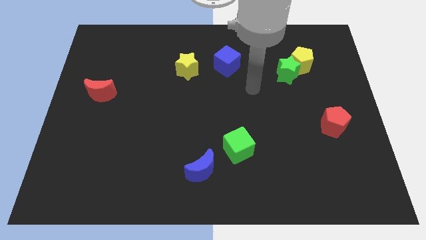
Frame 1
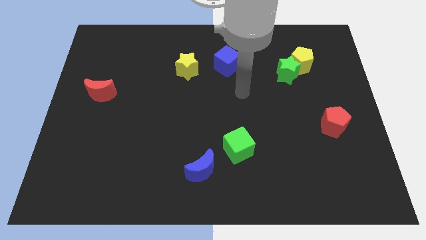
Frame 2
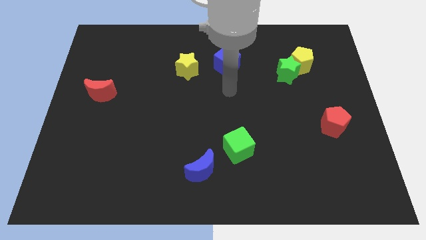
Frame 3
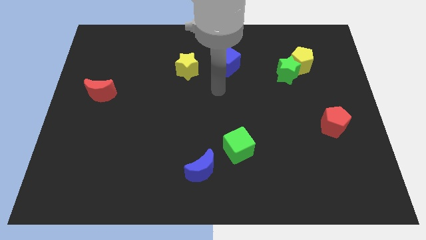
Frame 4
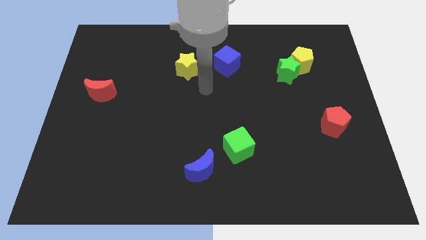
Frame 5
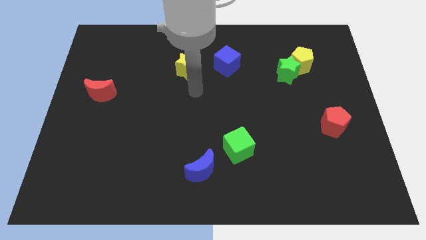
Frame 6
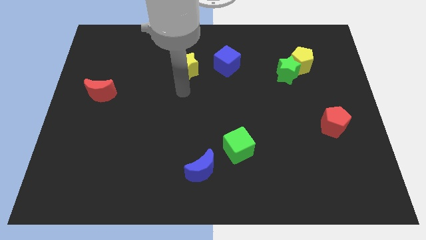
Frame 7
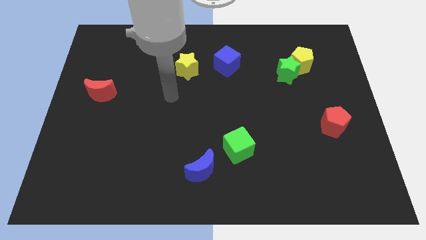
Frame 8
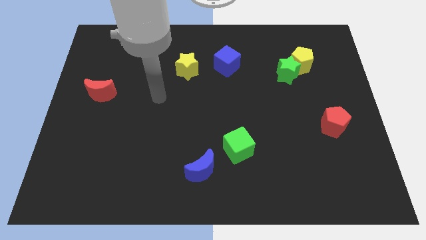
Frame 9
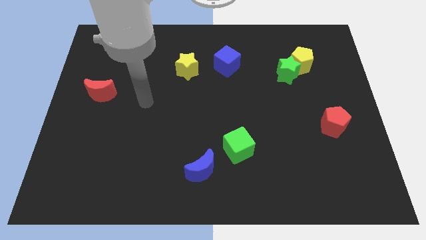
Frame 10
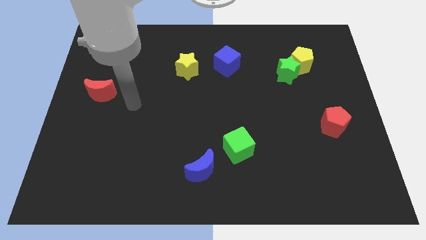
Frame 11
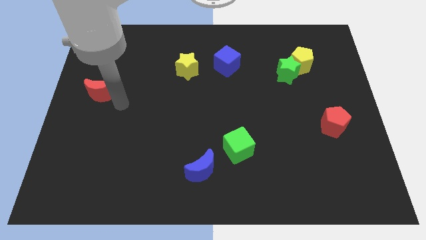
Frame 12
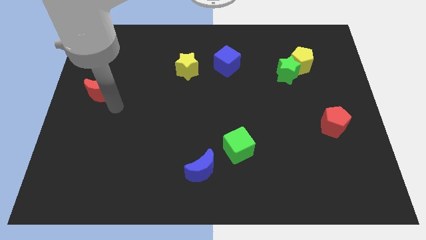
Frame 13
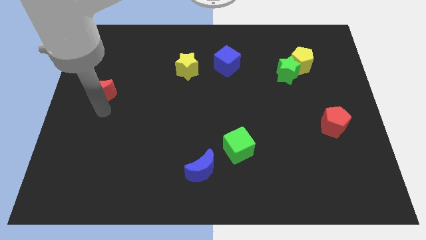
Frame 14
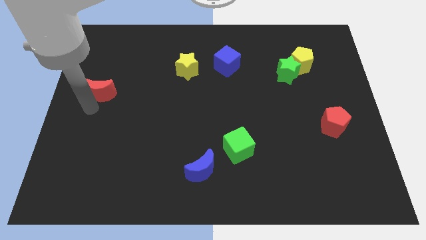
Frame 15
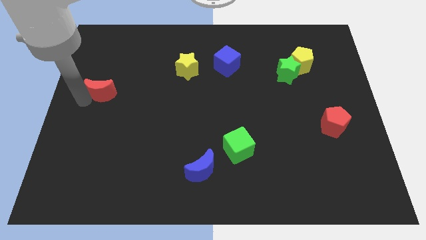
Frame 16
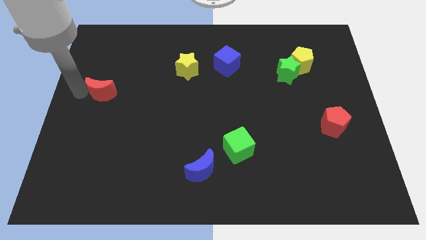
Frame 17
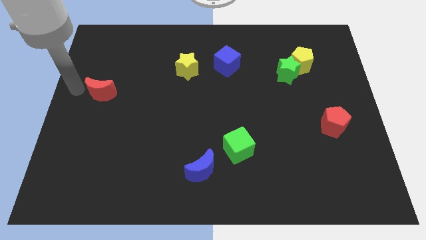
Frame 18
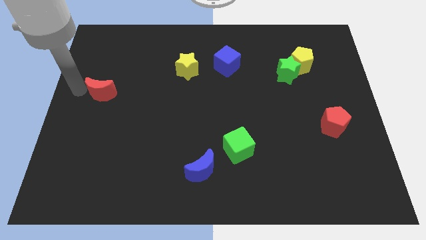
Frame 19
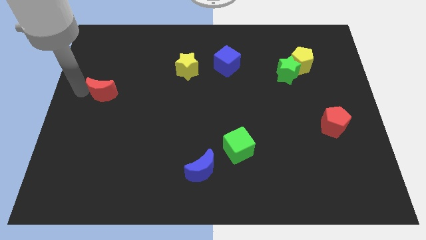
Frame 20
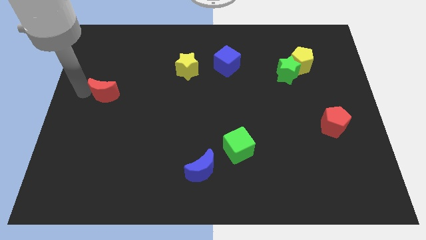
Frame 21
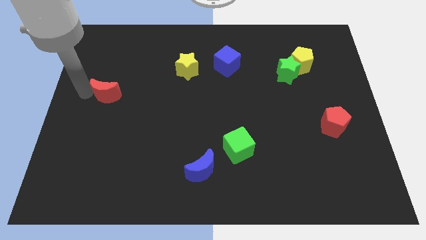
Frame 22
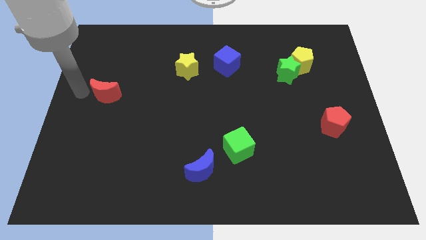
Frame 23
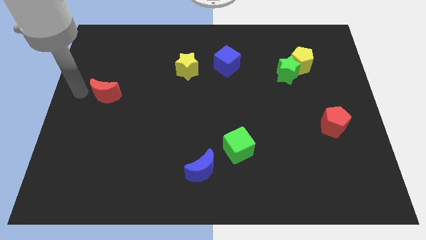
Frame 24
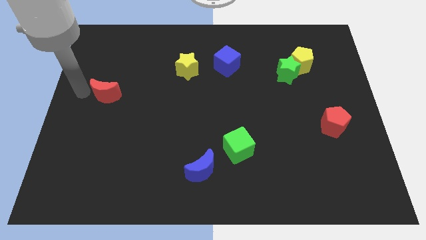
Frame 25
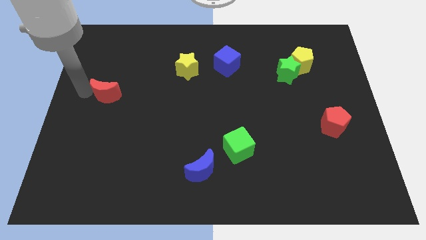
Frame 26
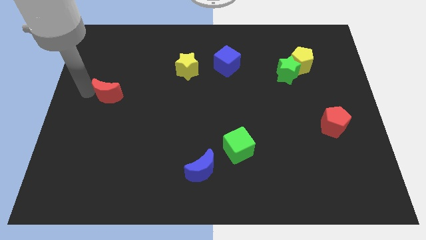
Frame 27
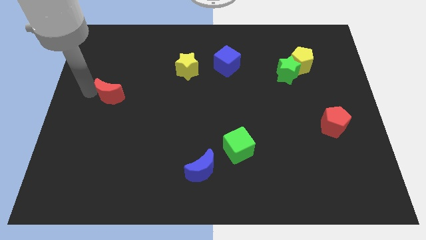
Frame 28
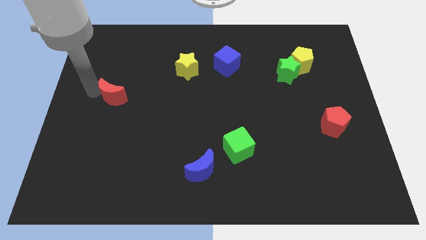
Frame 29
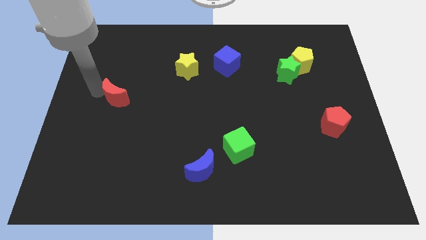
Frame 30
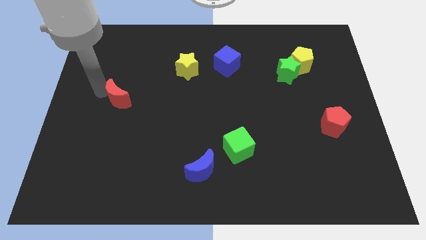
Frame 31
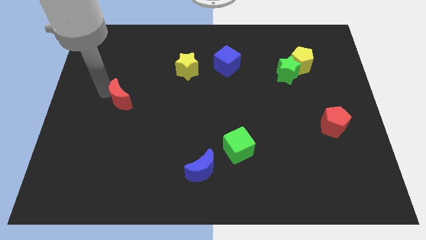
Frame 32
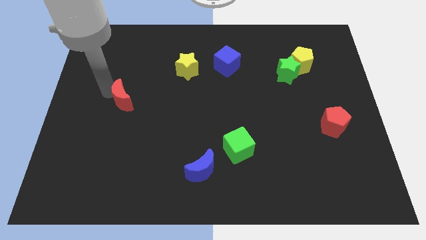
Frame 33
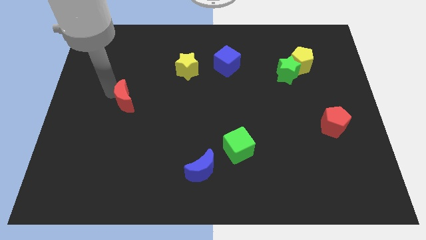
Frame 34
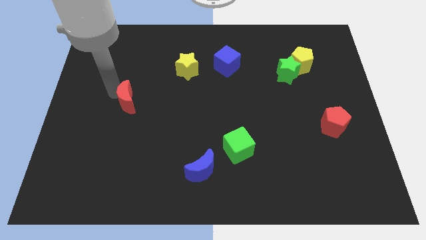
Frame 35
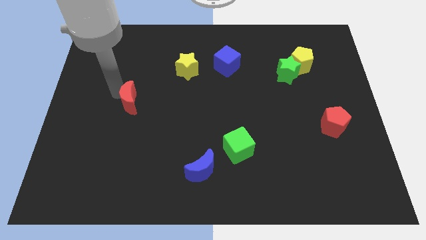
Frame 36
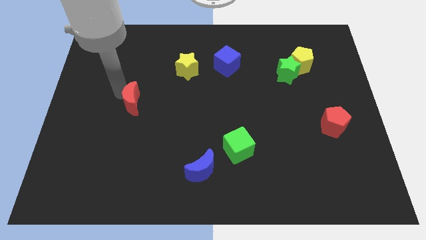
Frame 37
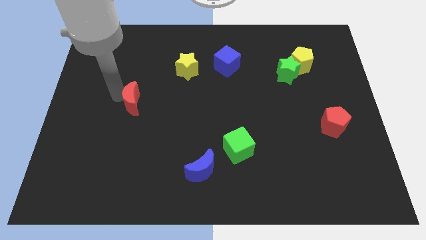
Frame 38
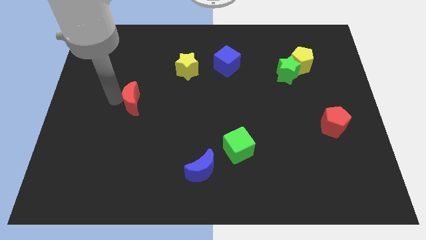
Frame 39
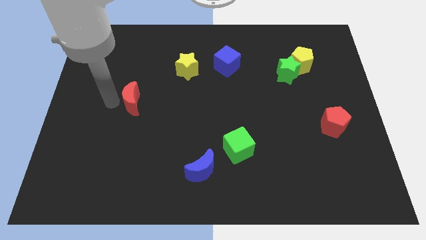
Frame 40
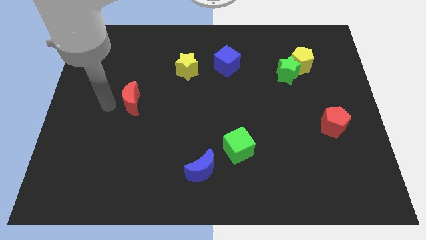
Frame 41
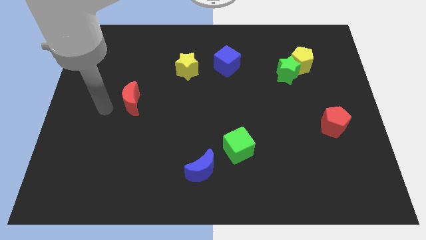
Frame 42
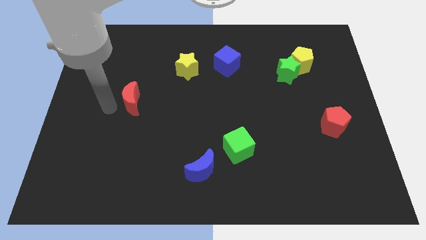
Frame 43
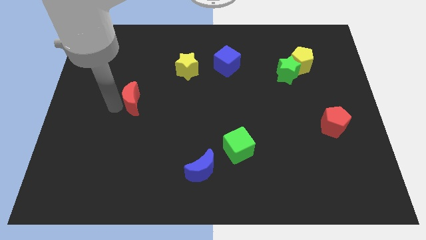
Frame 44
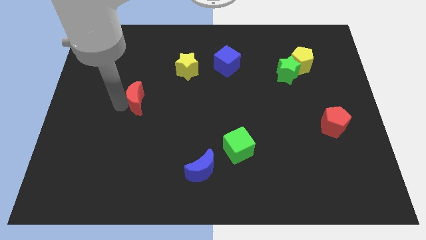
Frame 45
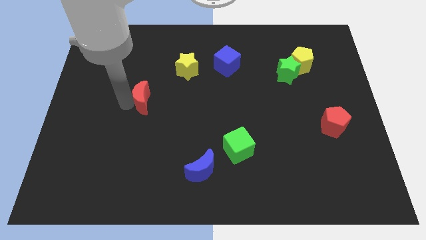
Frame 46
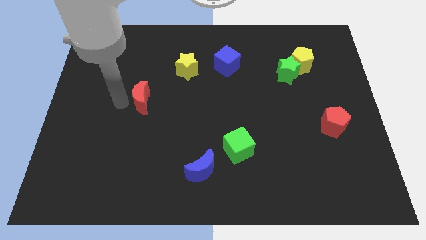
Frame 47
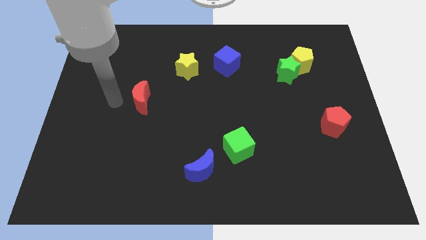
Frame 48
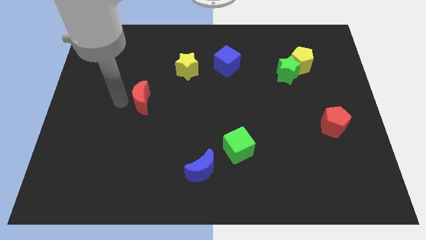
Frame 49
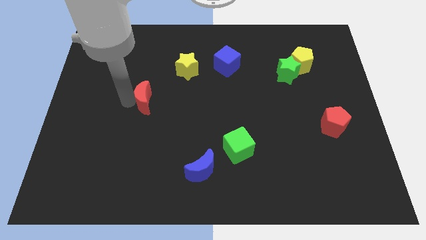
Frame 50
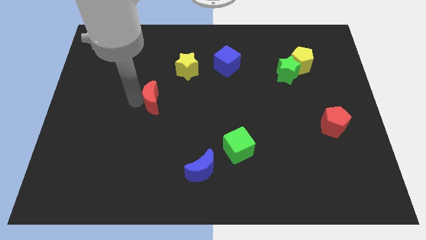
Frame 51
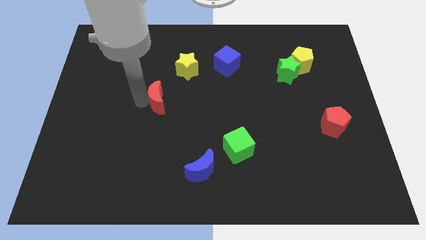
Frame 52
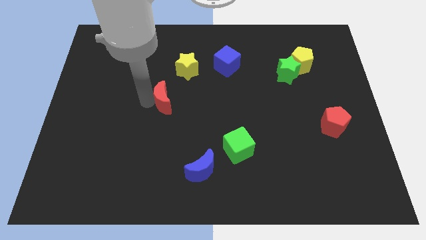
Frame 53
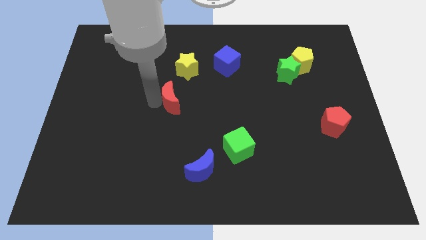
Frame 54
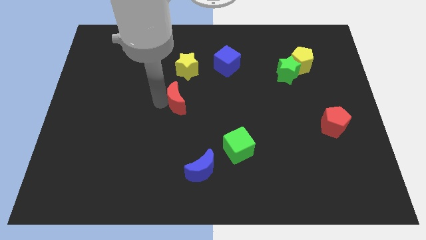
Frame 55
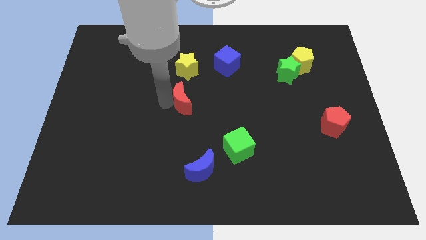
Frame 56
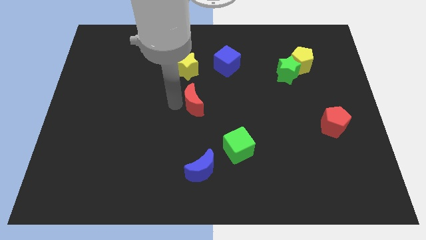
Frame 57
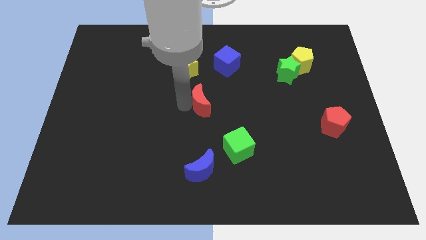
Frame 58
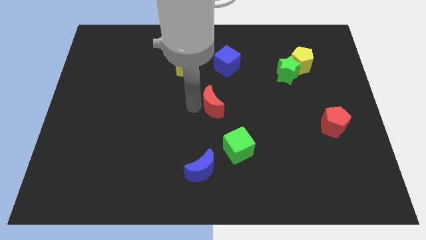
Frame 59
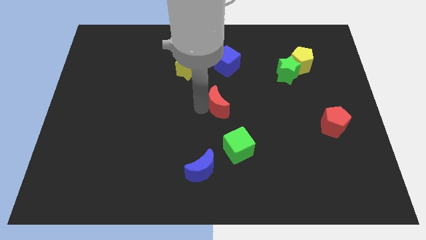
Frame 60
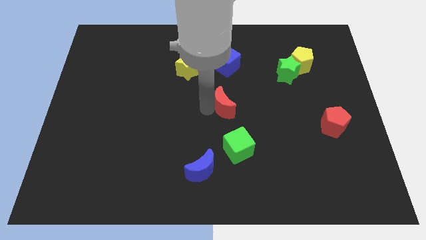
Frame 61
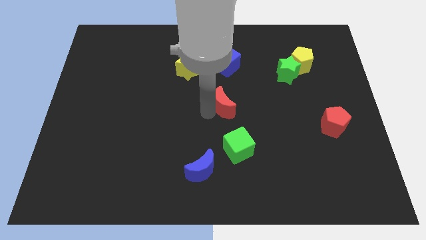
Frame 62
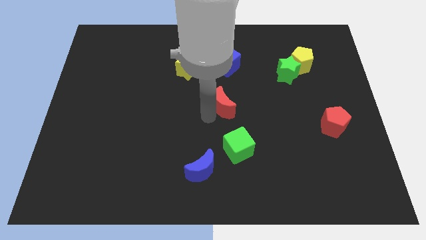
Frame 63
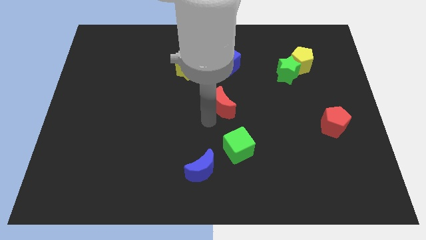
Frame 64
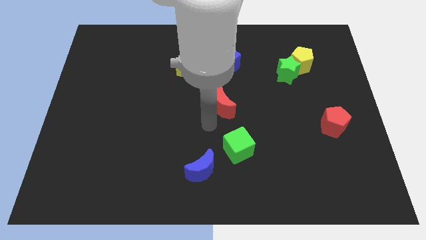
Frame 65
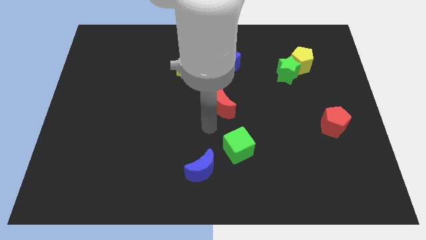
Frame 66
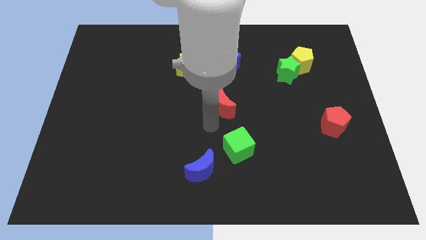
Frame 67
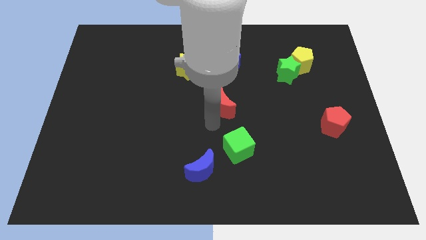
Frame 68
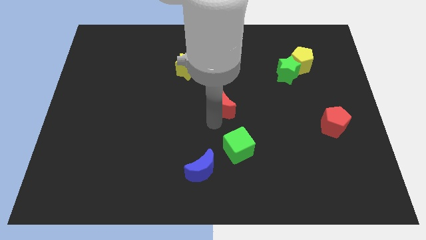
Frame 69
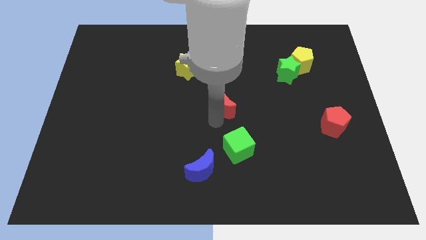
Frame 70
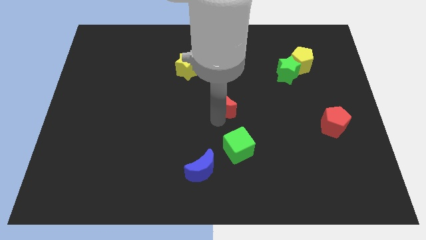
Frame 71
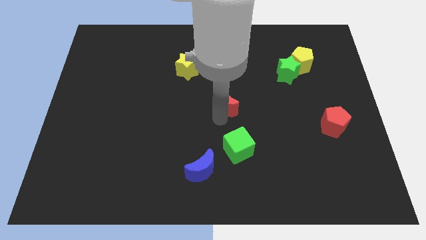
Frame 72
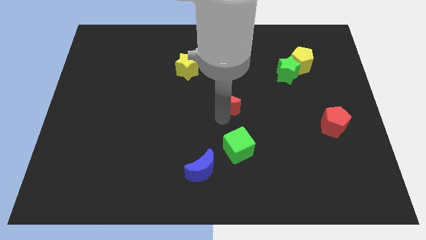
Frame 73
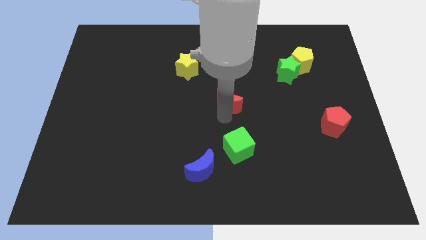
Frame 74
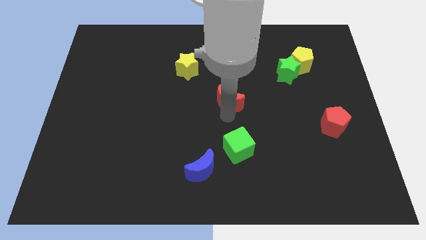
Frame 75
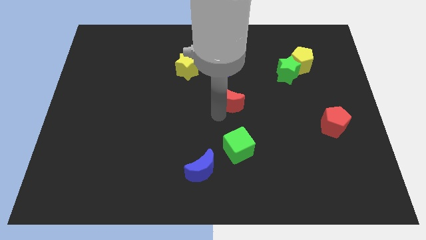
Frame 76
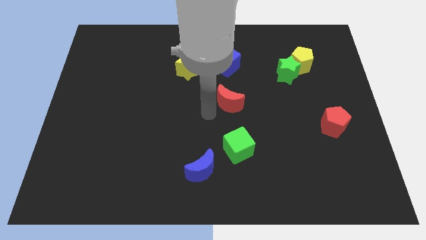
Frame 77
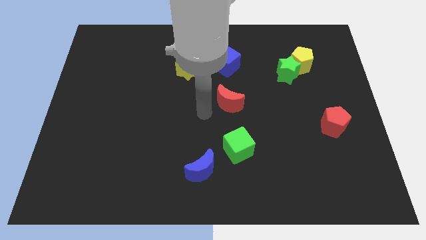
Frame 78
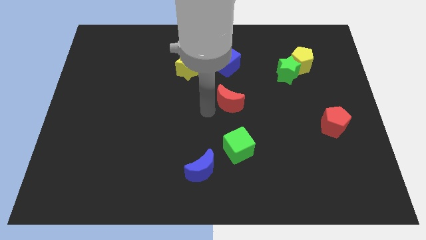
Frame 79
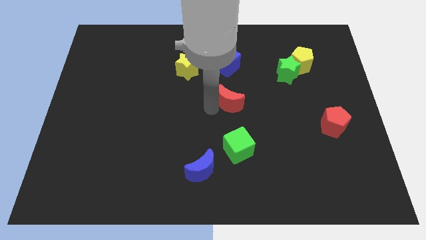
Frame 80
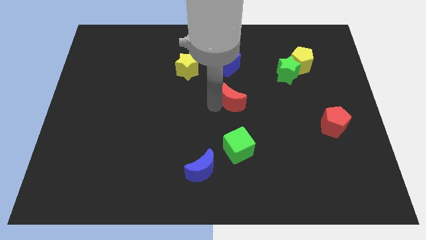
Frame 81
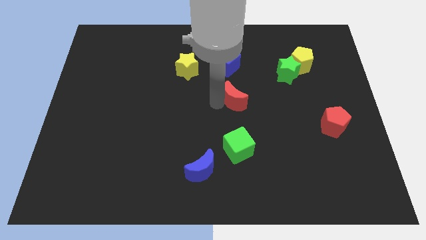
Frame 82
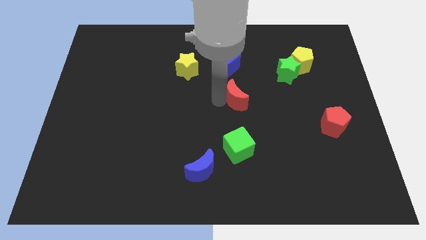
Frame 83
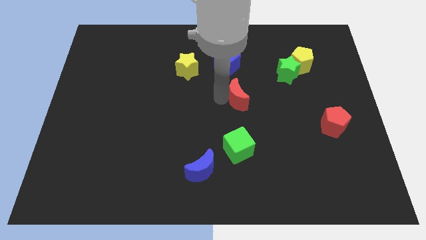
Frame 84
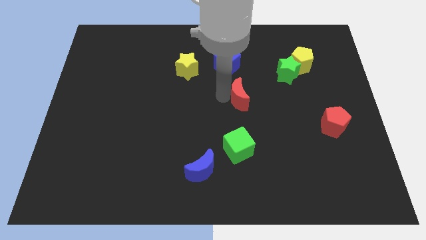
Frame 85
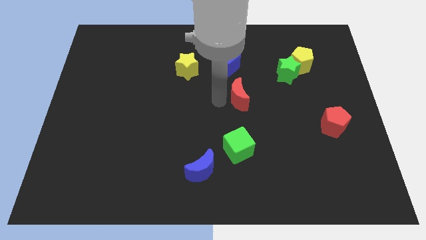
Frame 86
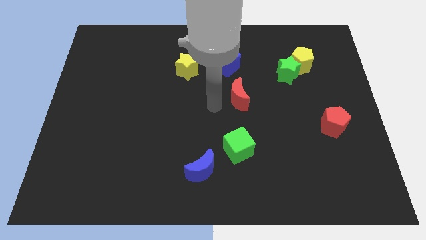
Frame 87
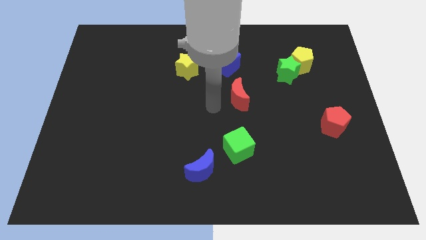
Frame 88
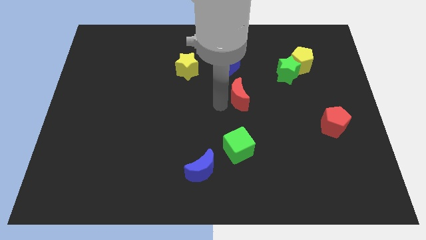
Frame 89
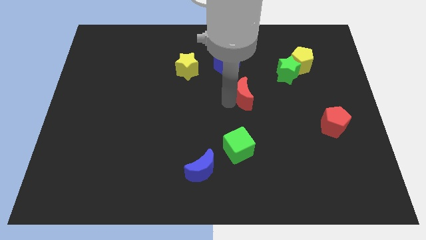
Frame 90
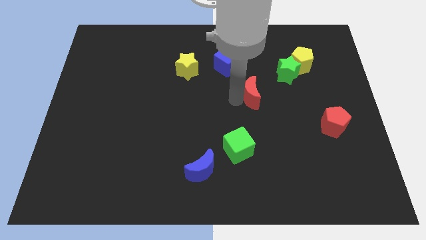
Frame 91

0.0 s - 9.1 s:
slide the red moon to the bottom left side of the green star
